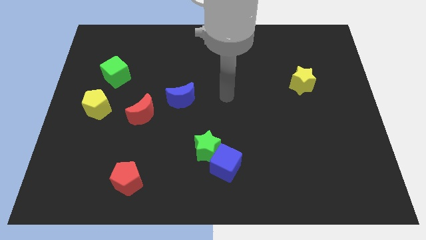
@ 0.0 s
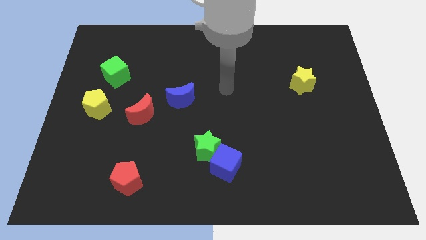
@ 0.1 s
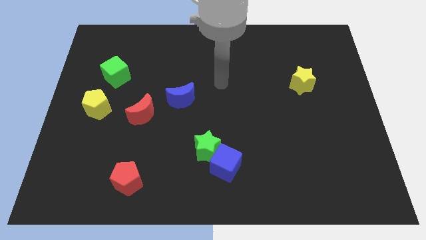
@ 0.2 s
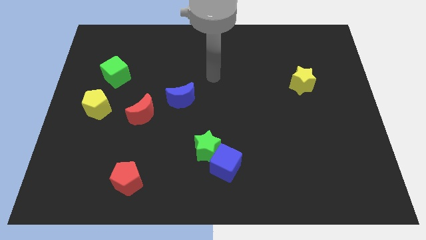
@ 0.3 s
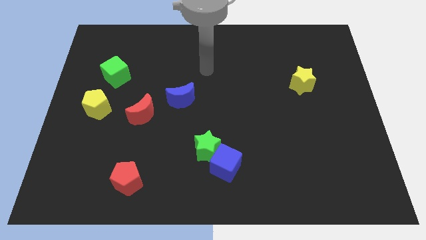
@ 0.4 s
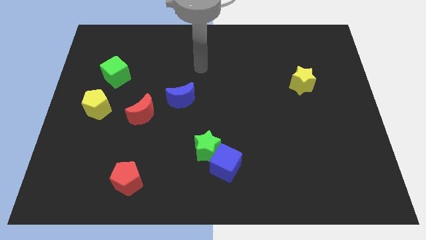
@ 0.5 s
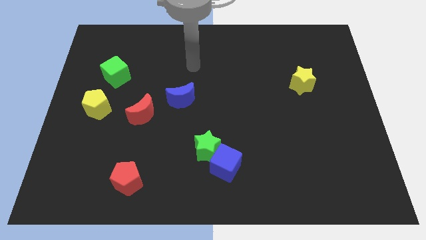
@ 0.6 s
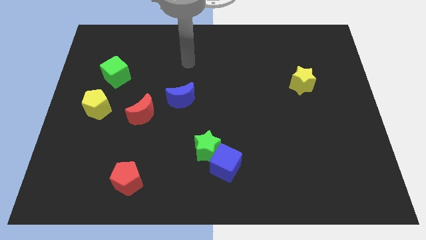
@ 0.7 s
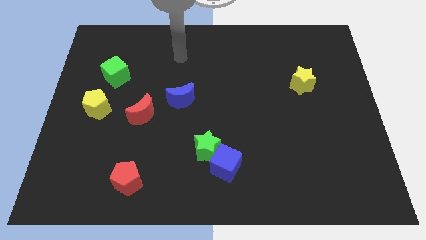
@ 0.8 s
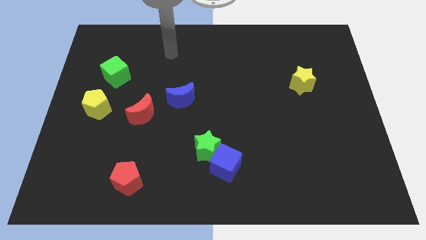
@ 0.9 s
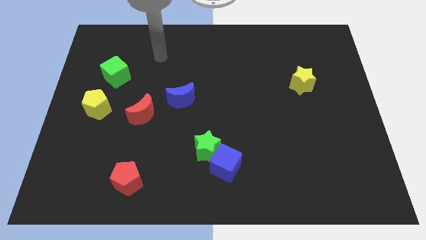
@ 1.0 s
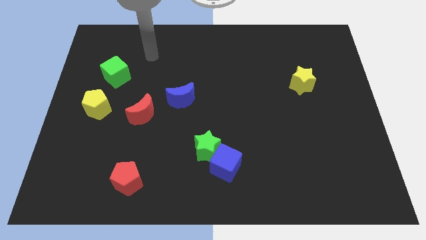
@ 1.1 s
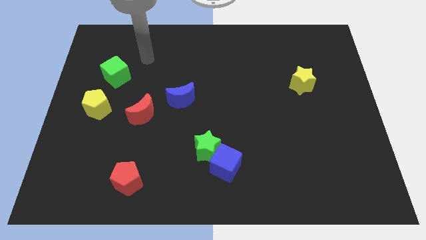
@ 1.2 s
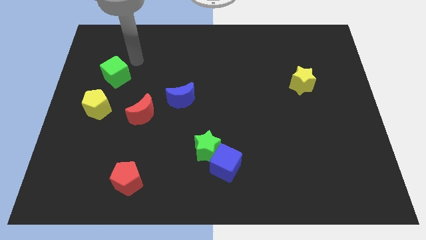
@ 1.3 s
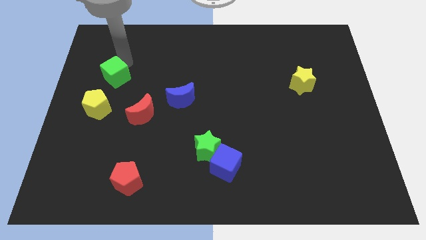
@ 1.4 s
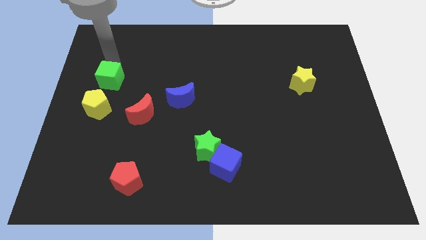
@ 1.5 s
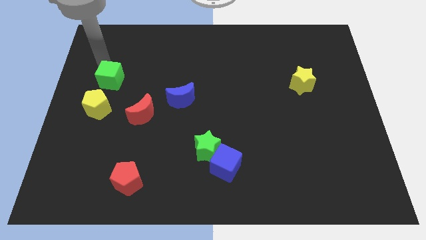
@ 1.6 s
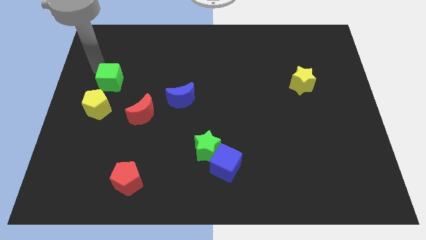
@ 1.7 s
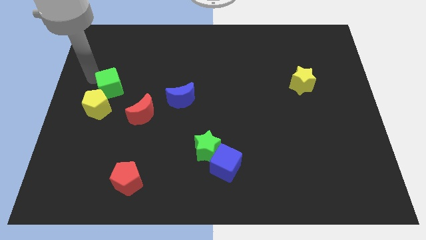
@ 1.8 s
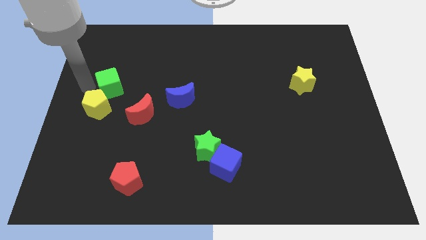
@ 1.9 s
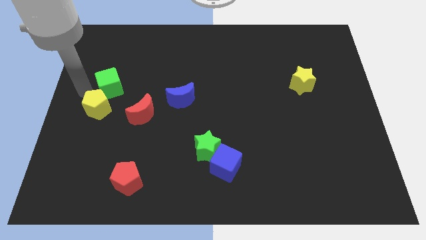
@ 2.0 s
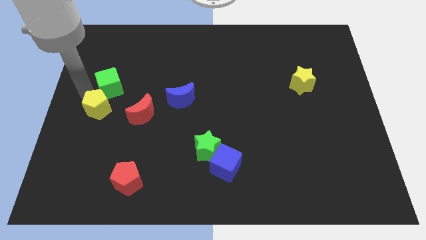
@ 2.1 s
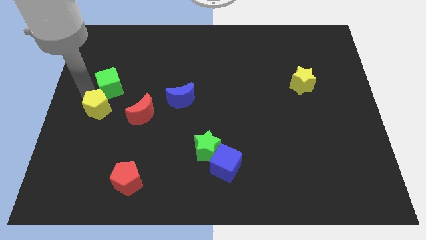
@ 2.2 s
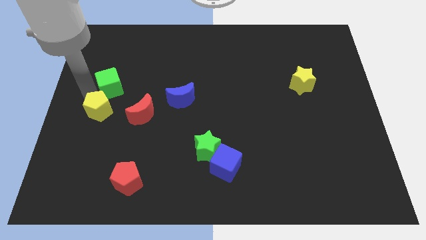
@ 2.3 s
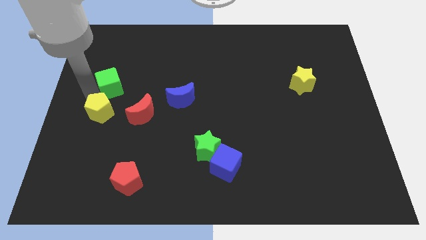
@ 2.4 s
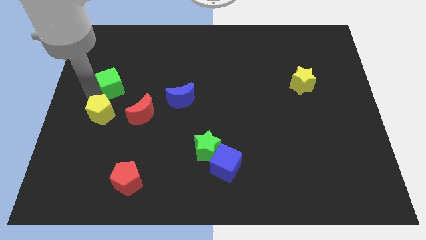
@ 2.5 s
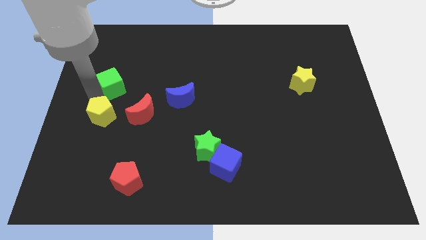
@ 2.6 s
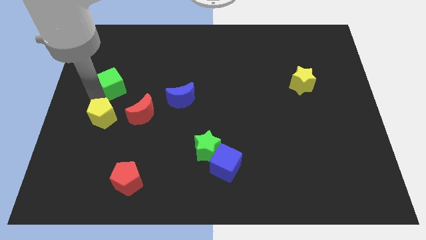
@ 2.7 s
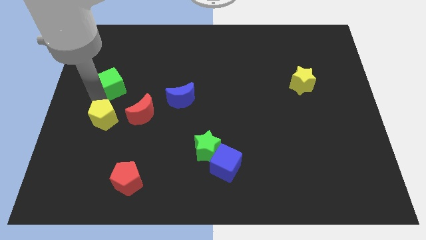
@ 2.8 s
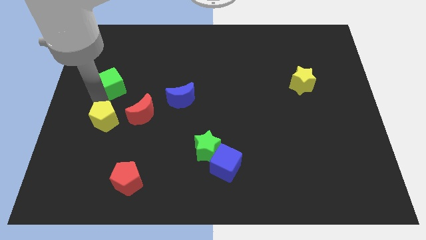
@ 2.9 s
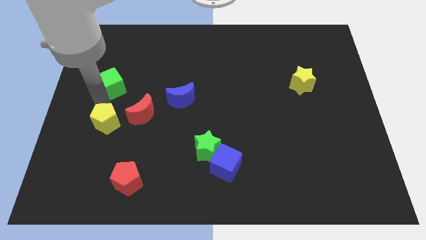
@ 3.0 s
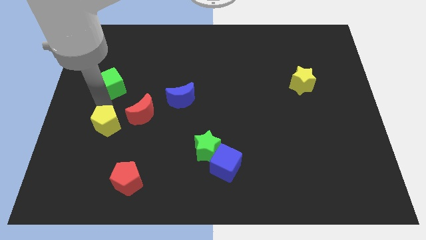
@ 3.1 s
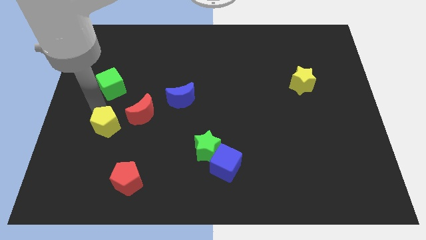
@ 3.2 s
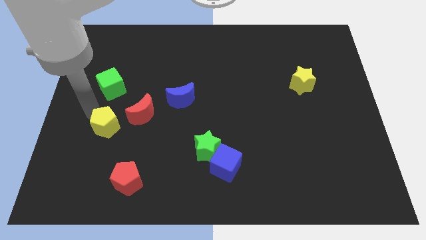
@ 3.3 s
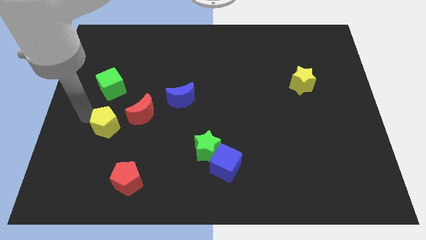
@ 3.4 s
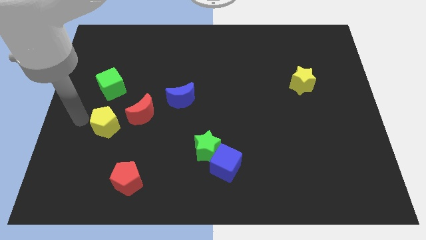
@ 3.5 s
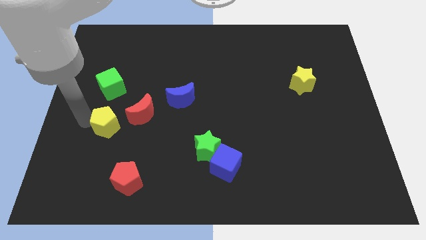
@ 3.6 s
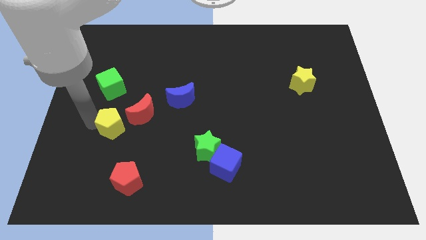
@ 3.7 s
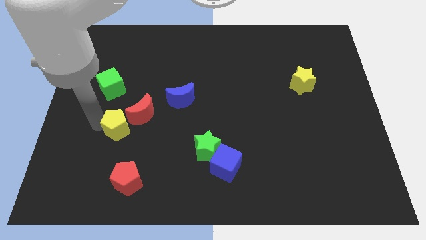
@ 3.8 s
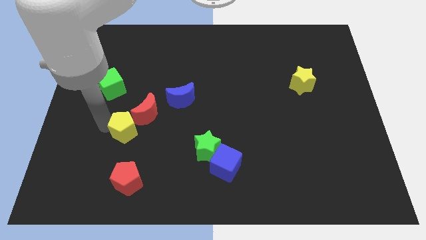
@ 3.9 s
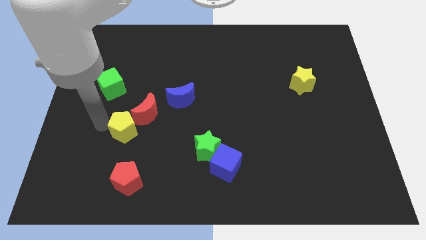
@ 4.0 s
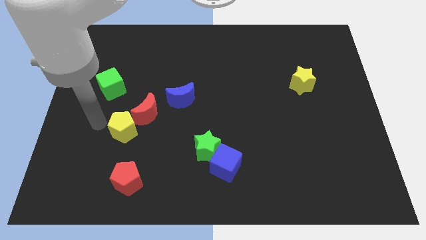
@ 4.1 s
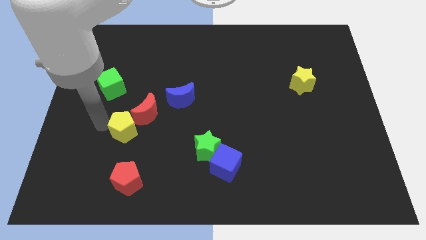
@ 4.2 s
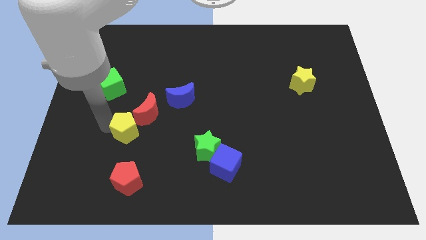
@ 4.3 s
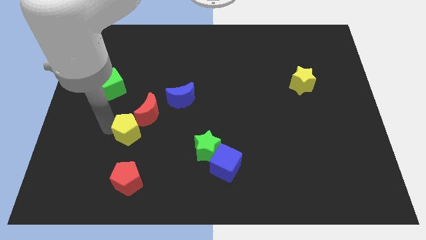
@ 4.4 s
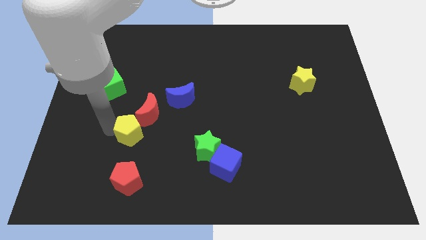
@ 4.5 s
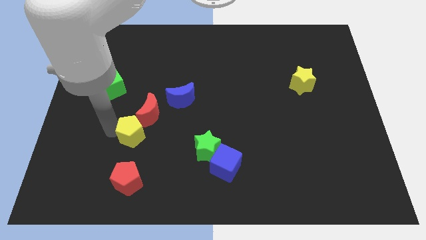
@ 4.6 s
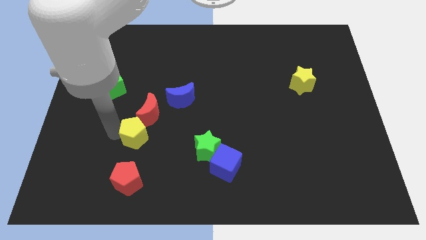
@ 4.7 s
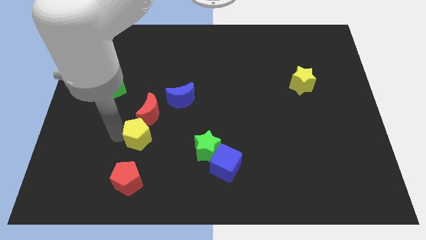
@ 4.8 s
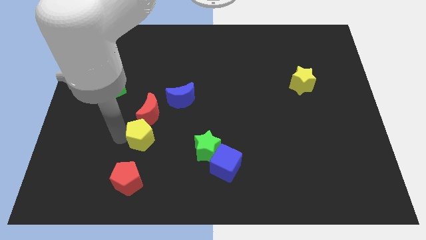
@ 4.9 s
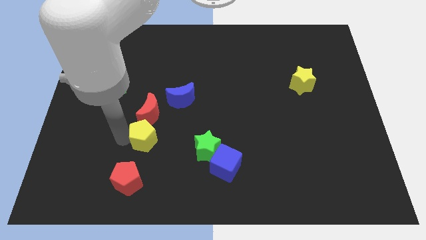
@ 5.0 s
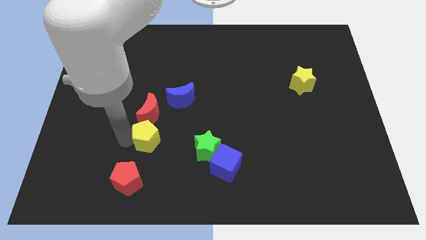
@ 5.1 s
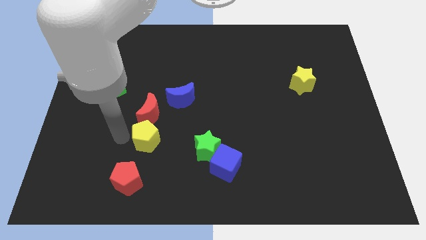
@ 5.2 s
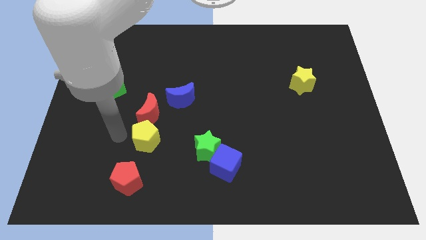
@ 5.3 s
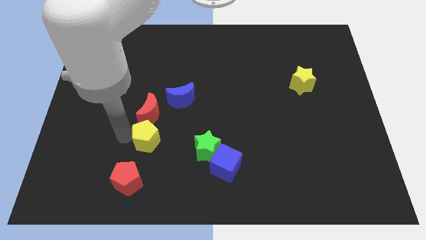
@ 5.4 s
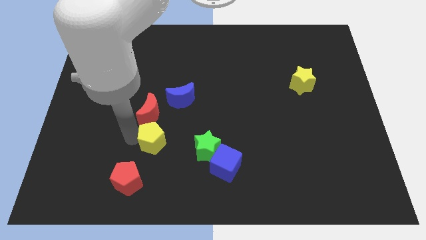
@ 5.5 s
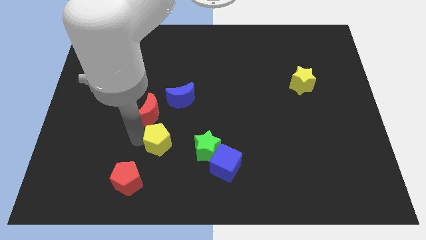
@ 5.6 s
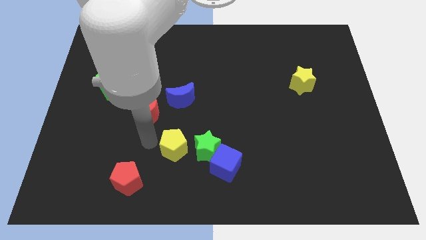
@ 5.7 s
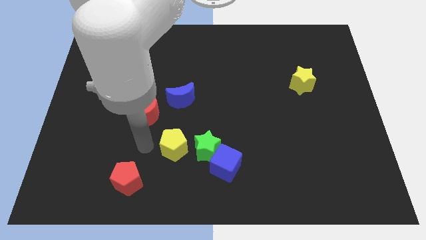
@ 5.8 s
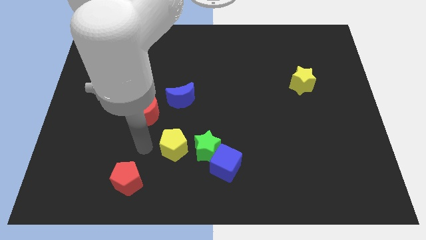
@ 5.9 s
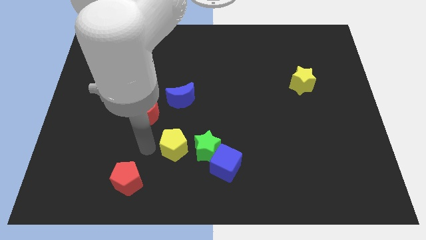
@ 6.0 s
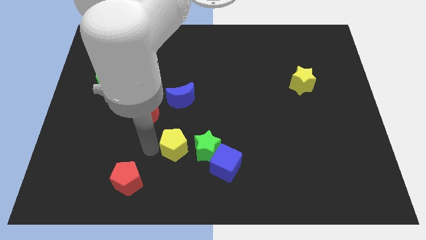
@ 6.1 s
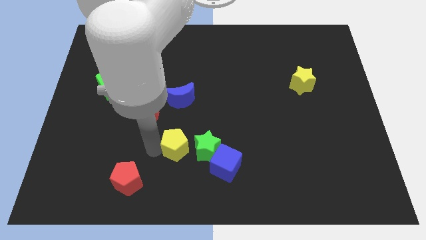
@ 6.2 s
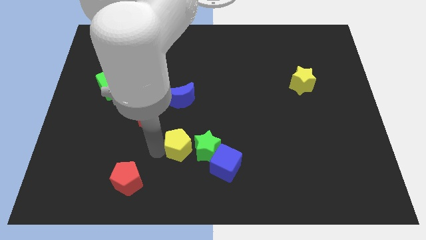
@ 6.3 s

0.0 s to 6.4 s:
put the yellow pentagon close to the green star

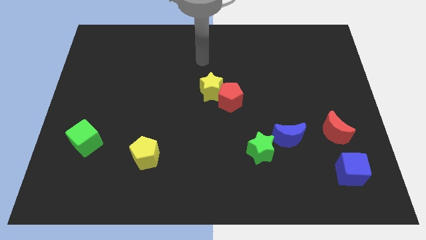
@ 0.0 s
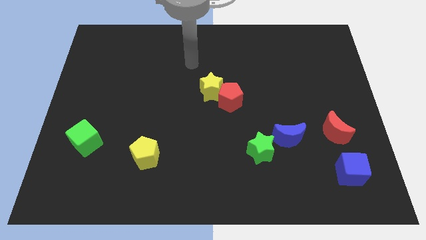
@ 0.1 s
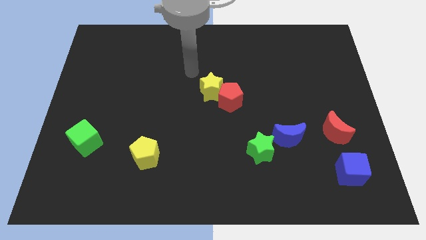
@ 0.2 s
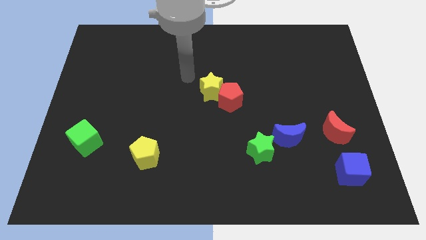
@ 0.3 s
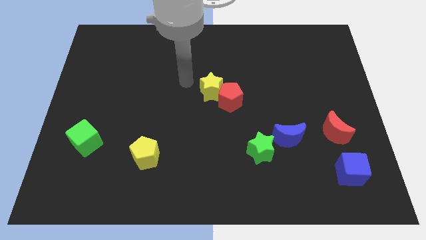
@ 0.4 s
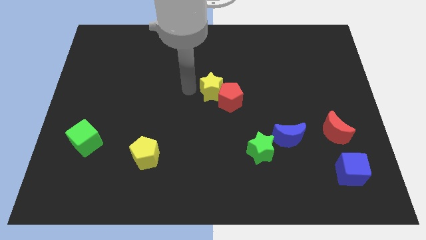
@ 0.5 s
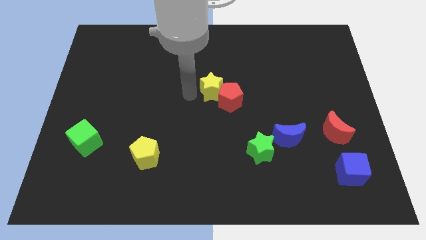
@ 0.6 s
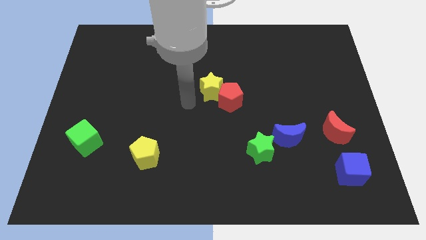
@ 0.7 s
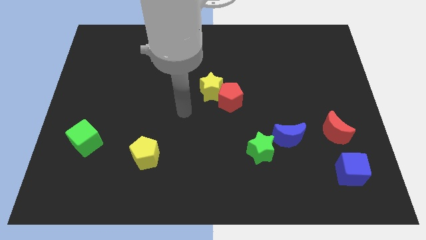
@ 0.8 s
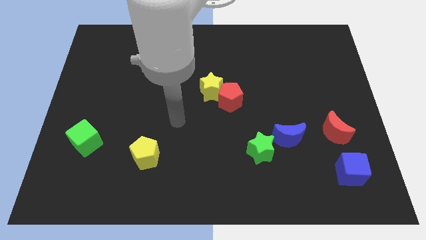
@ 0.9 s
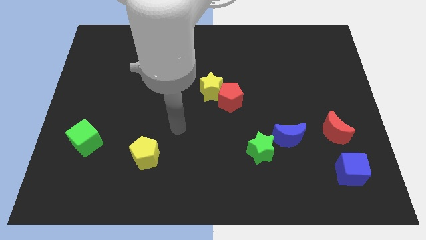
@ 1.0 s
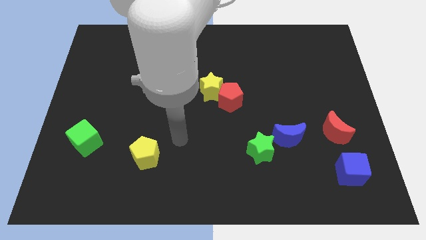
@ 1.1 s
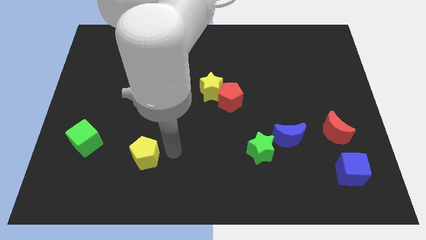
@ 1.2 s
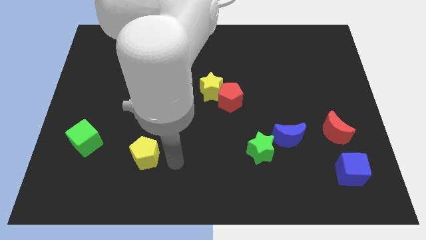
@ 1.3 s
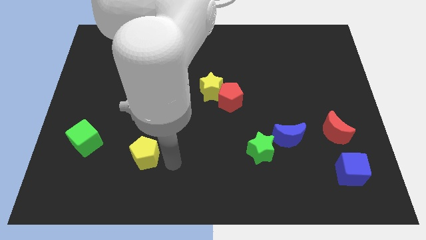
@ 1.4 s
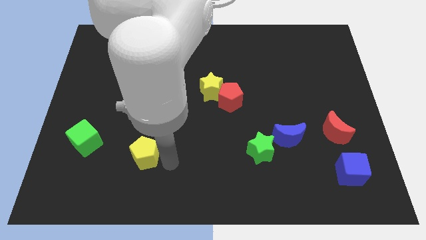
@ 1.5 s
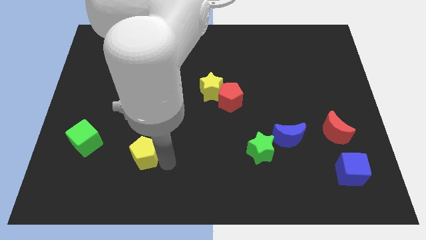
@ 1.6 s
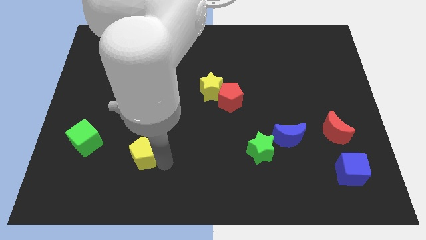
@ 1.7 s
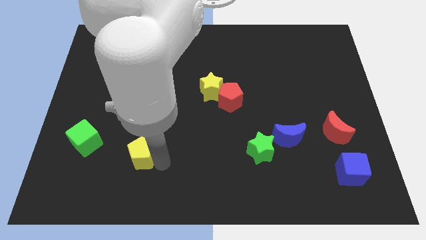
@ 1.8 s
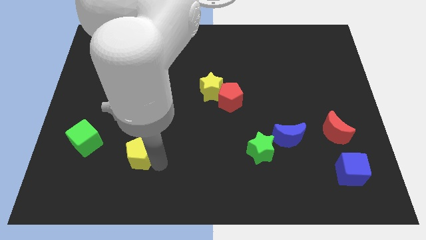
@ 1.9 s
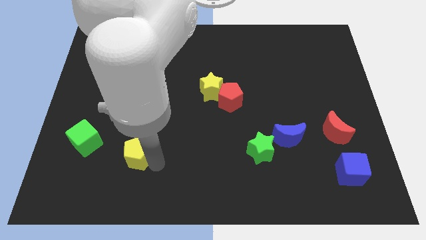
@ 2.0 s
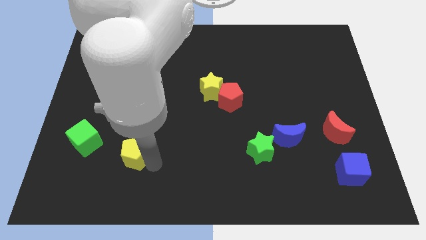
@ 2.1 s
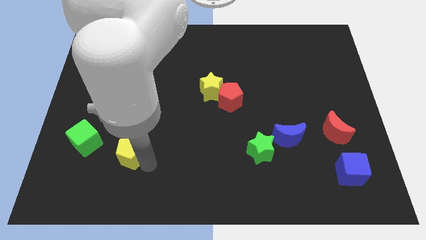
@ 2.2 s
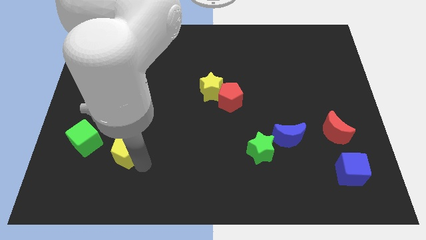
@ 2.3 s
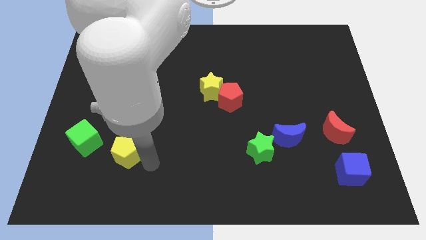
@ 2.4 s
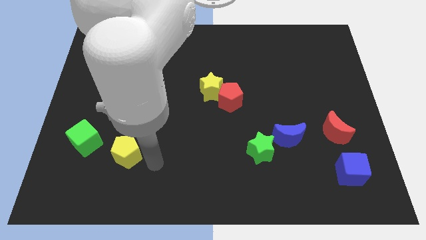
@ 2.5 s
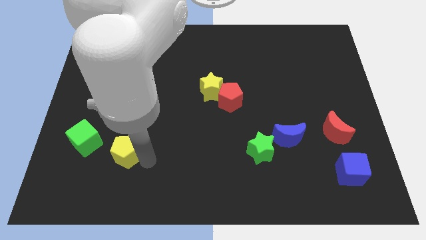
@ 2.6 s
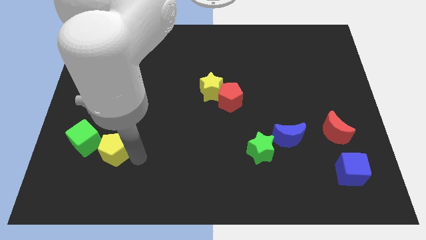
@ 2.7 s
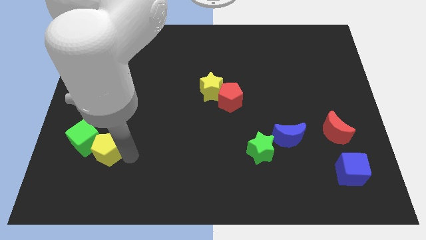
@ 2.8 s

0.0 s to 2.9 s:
move the yellow pentagon to the green cube
